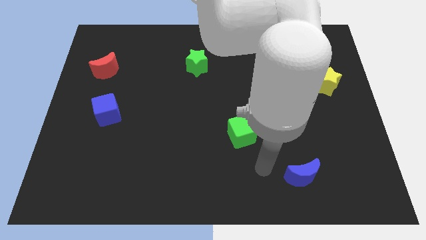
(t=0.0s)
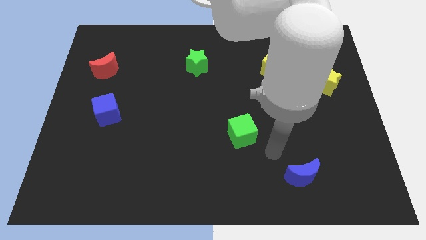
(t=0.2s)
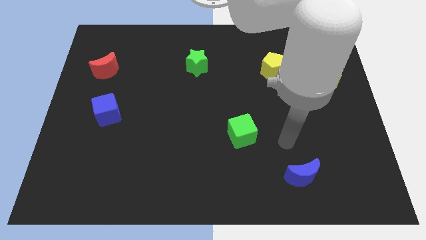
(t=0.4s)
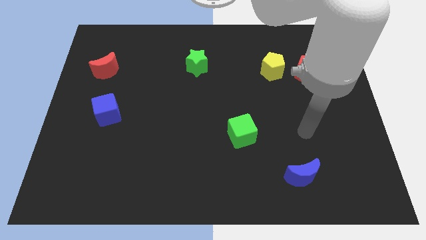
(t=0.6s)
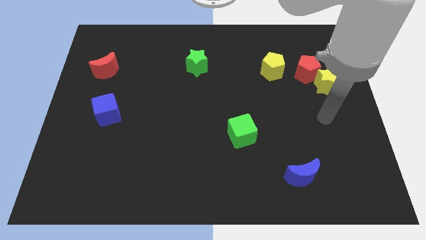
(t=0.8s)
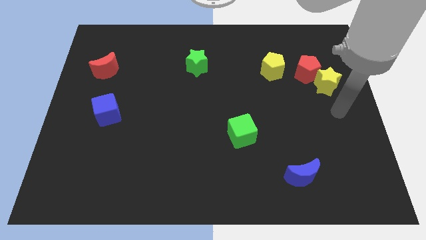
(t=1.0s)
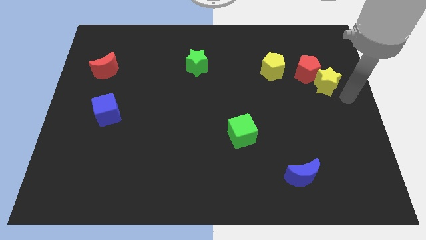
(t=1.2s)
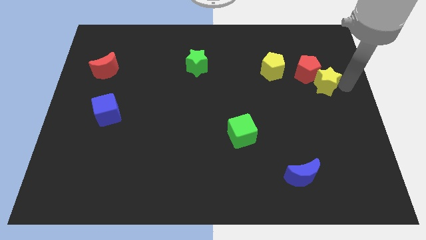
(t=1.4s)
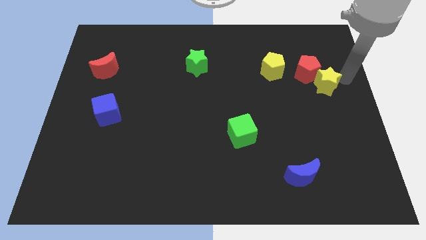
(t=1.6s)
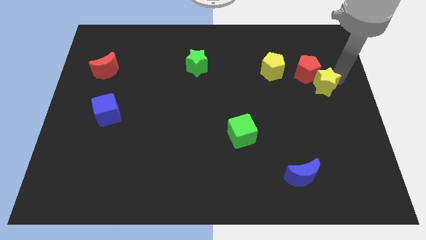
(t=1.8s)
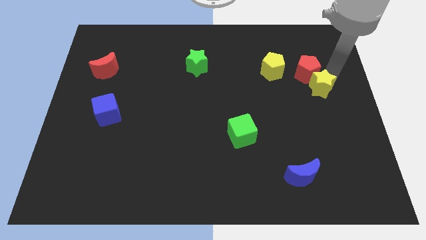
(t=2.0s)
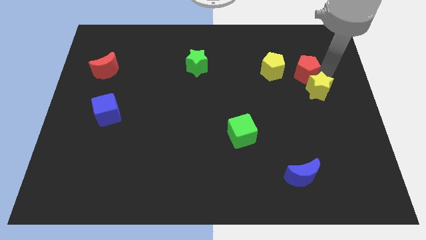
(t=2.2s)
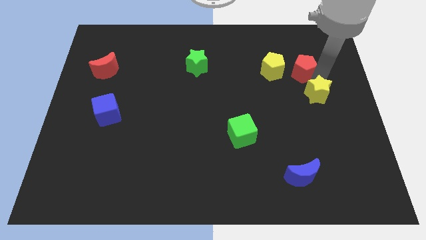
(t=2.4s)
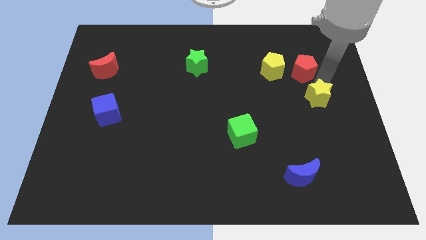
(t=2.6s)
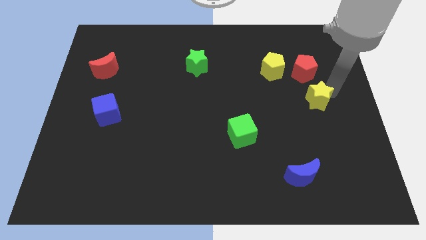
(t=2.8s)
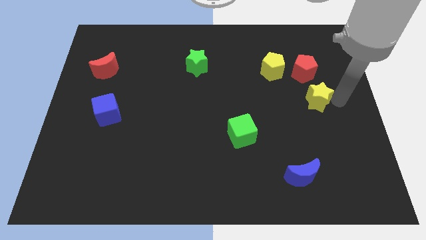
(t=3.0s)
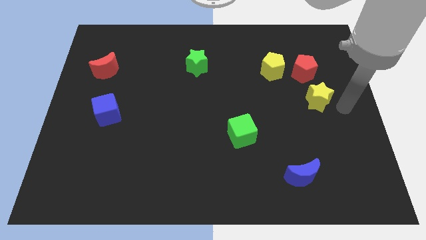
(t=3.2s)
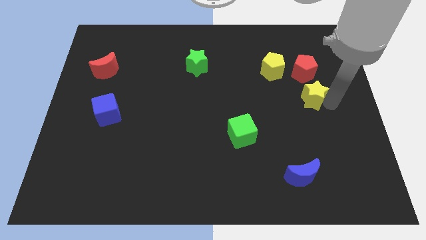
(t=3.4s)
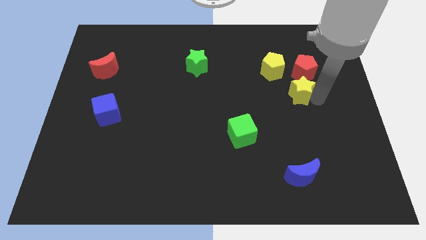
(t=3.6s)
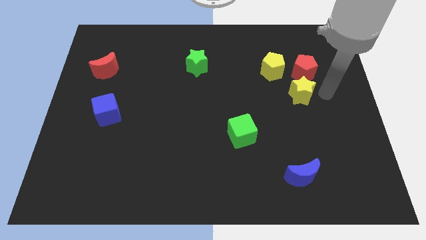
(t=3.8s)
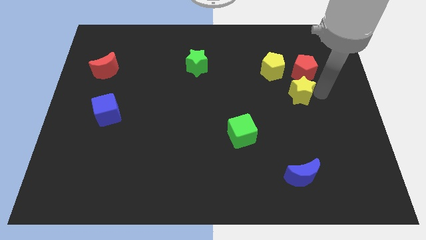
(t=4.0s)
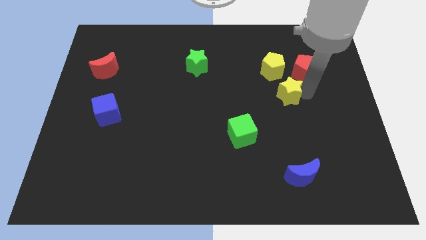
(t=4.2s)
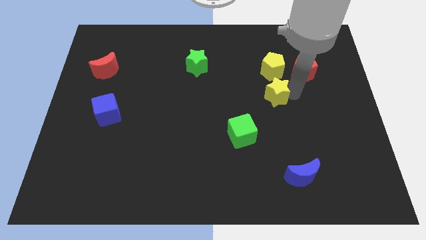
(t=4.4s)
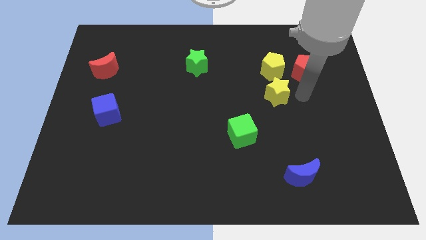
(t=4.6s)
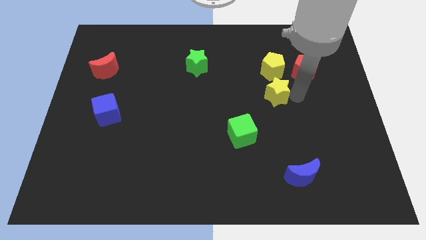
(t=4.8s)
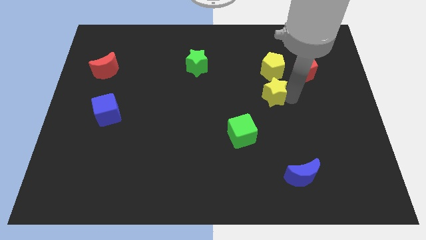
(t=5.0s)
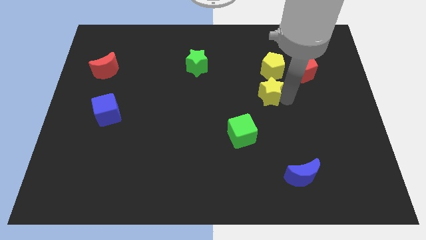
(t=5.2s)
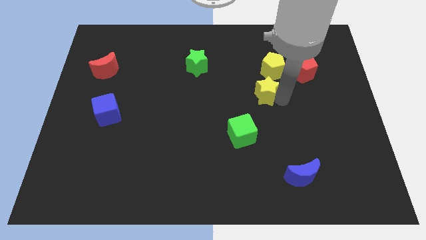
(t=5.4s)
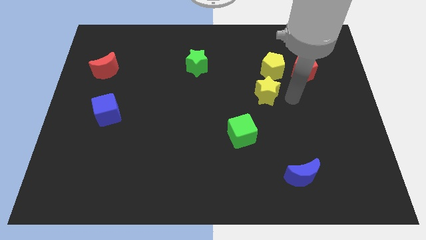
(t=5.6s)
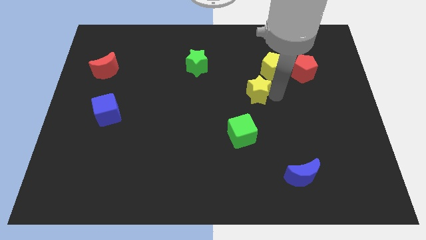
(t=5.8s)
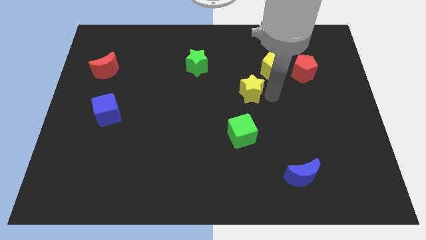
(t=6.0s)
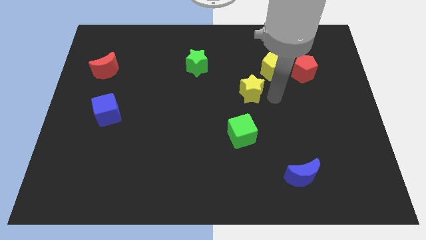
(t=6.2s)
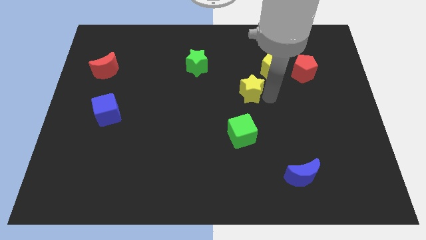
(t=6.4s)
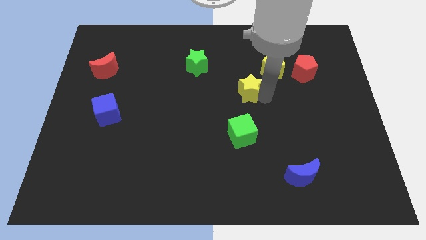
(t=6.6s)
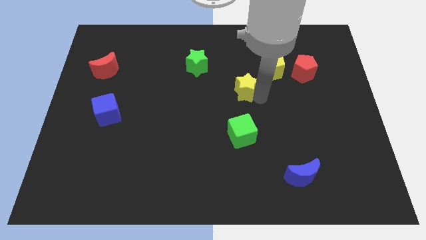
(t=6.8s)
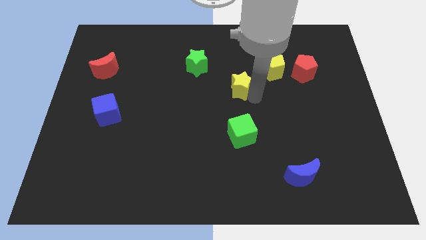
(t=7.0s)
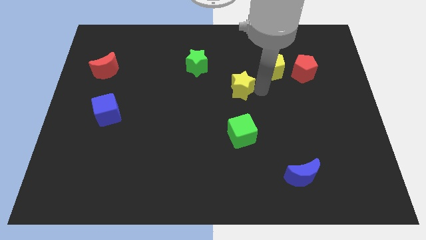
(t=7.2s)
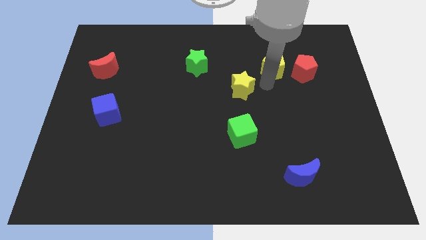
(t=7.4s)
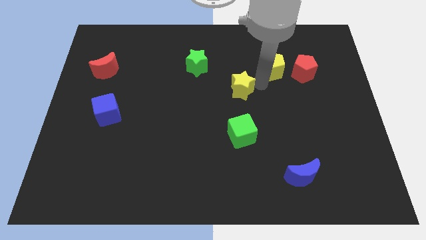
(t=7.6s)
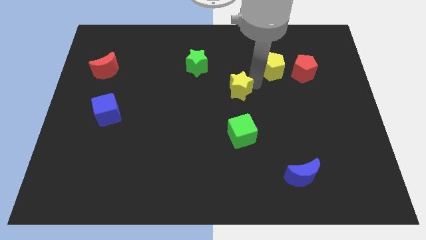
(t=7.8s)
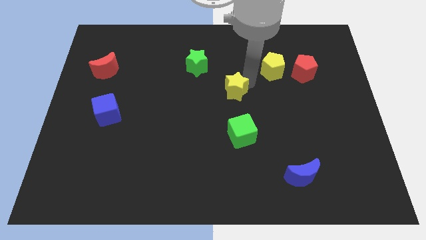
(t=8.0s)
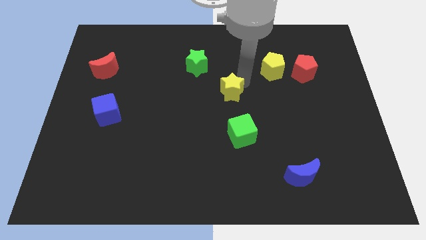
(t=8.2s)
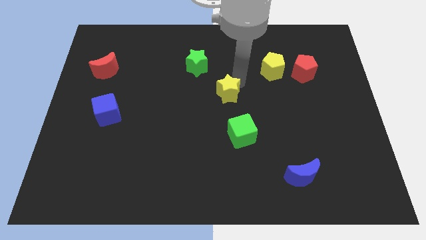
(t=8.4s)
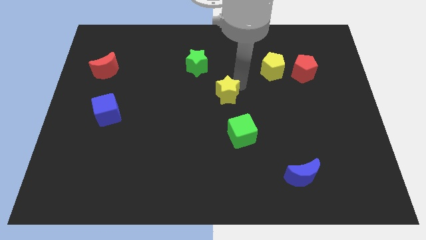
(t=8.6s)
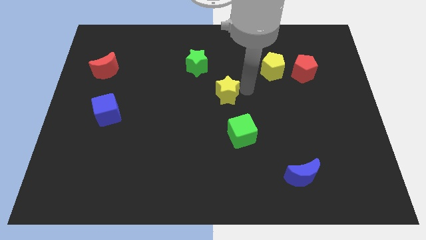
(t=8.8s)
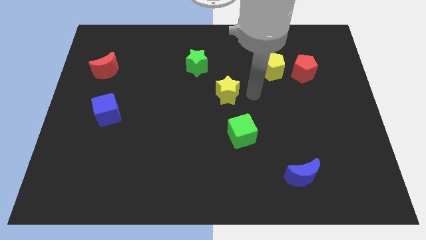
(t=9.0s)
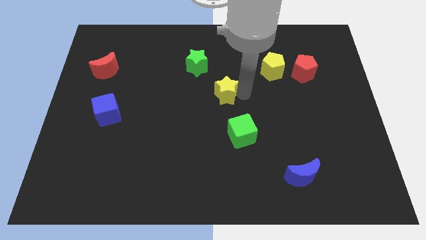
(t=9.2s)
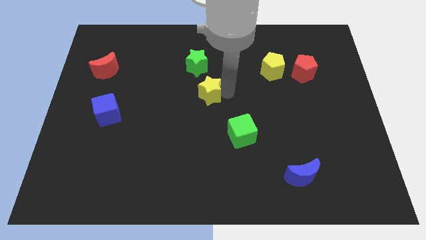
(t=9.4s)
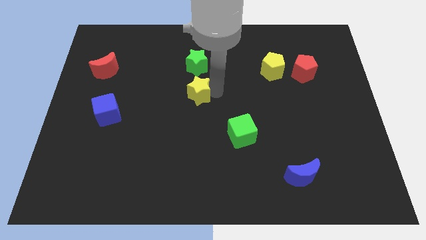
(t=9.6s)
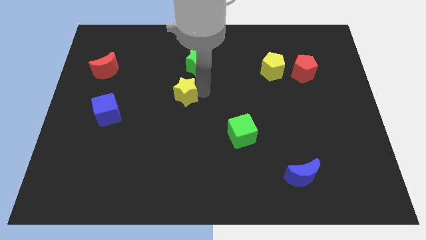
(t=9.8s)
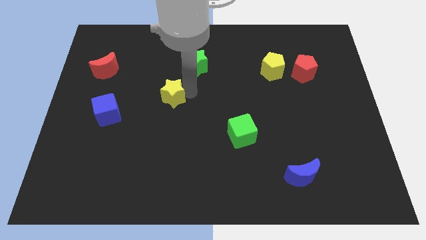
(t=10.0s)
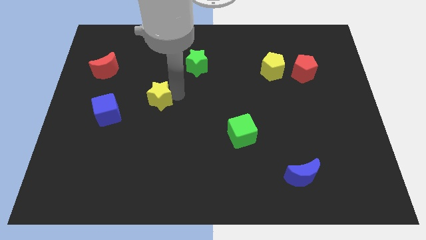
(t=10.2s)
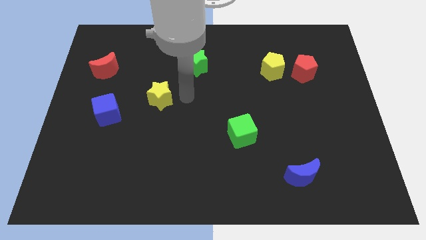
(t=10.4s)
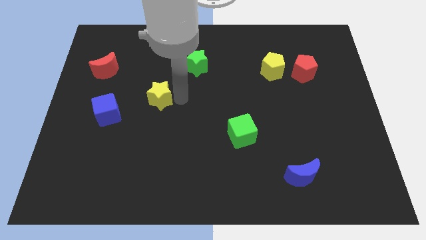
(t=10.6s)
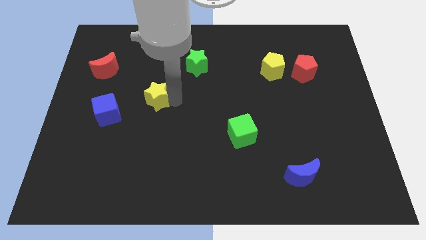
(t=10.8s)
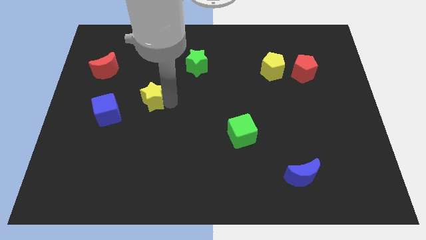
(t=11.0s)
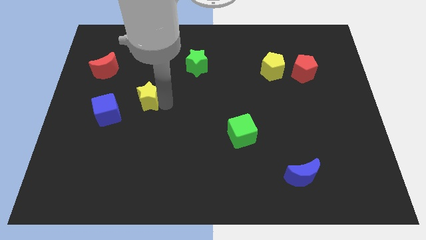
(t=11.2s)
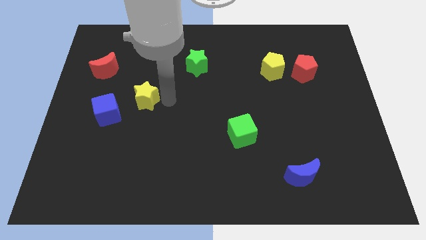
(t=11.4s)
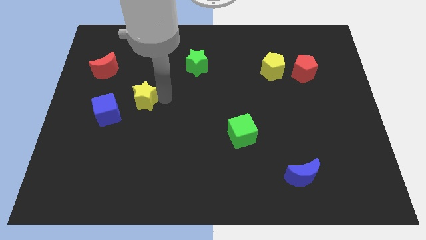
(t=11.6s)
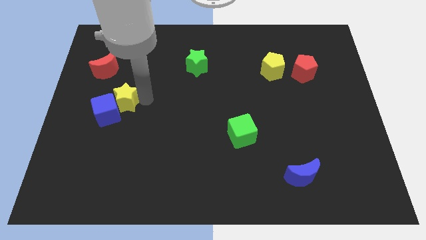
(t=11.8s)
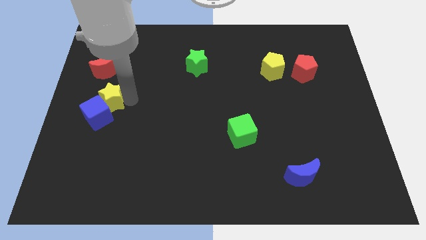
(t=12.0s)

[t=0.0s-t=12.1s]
slide the yellow star to the bottom side of the red moon

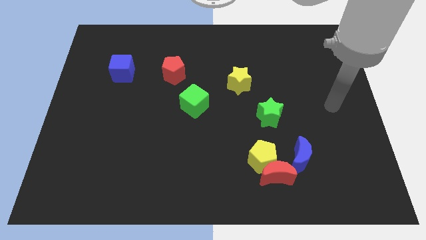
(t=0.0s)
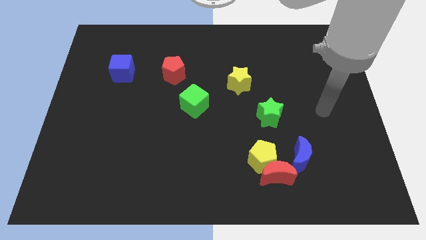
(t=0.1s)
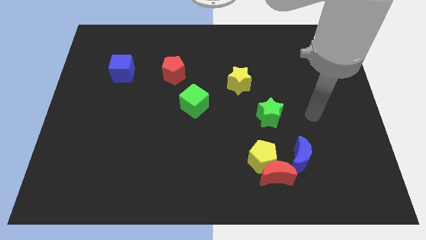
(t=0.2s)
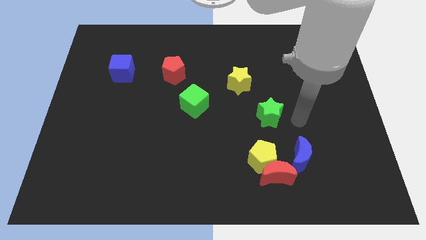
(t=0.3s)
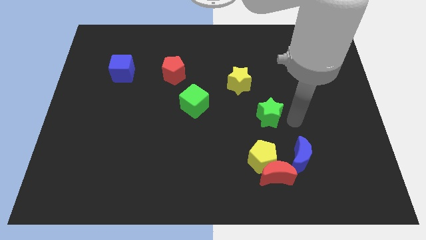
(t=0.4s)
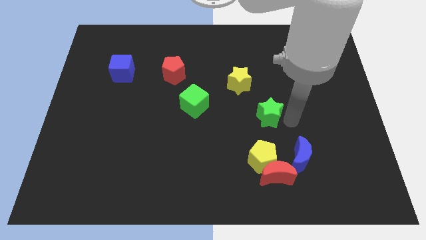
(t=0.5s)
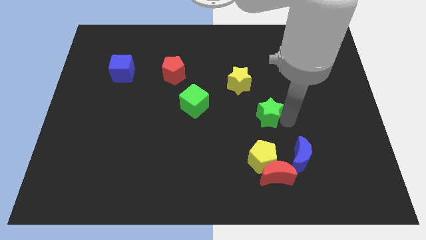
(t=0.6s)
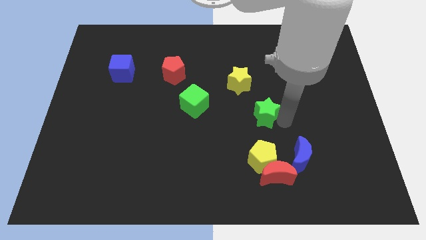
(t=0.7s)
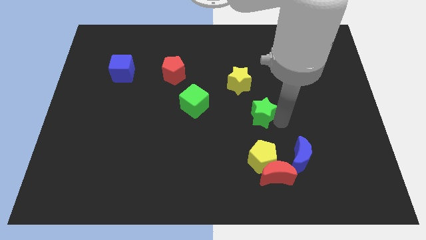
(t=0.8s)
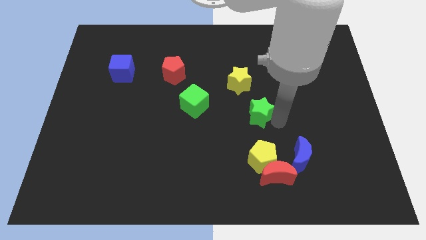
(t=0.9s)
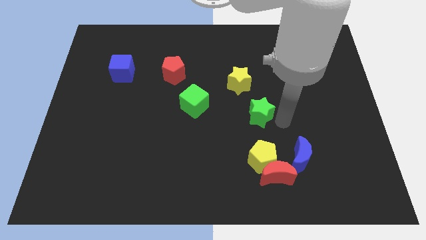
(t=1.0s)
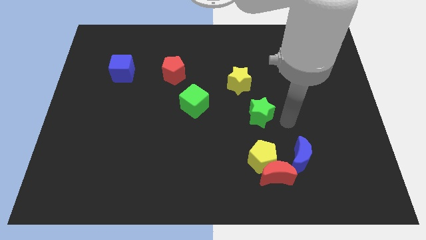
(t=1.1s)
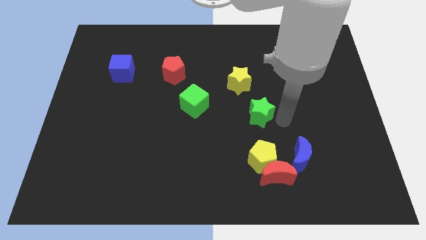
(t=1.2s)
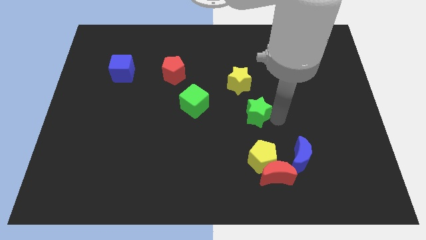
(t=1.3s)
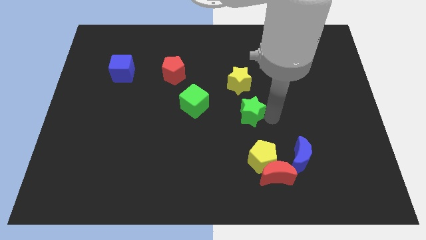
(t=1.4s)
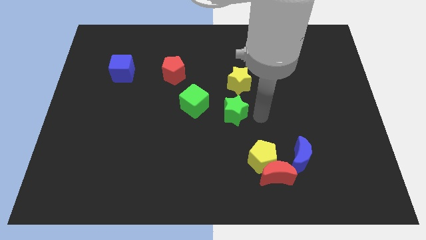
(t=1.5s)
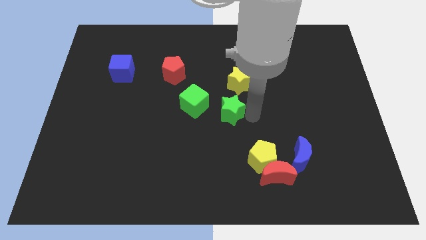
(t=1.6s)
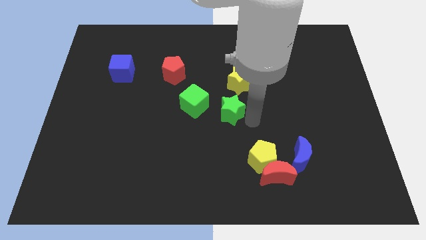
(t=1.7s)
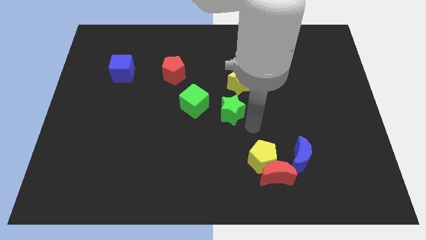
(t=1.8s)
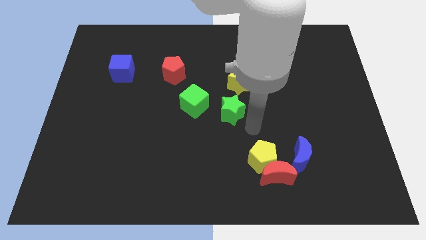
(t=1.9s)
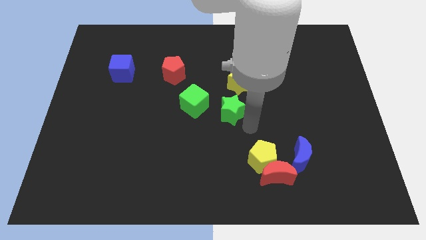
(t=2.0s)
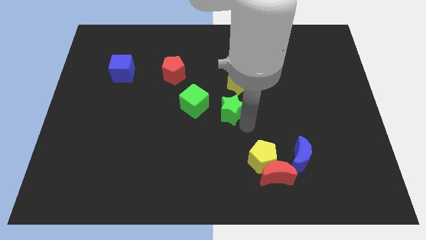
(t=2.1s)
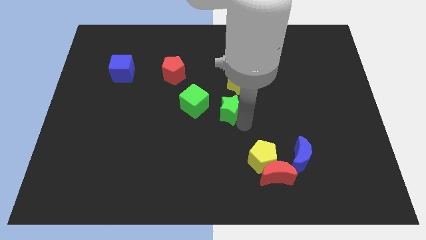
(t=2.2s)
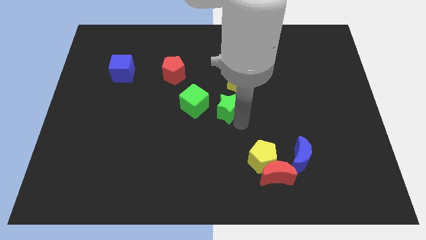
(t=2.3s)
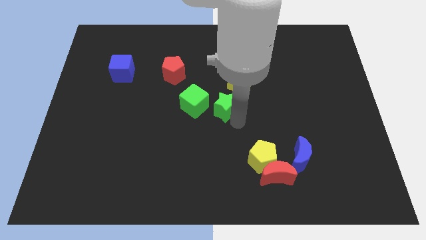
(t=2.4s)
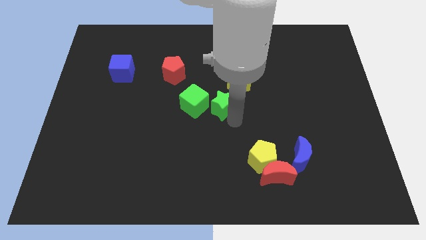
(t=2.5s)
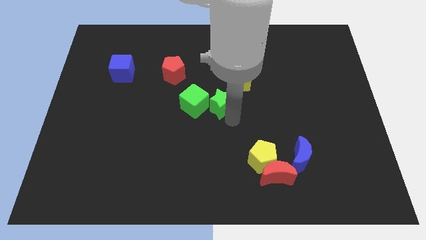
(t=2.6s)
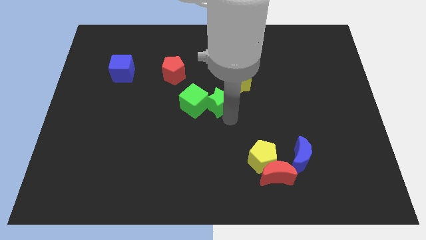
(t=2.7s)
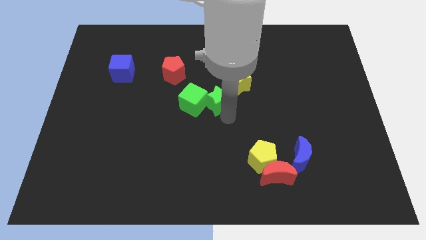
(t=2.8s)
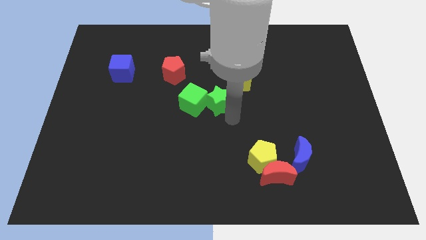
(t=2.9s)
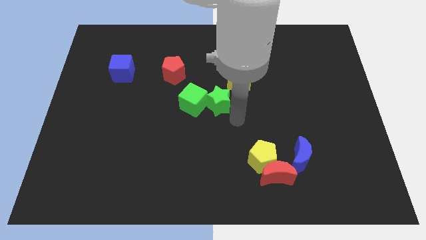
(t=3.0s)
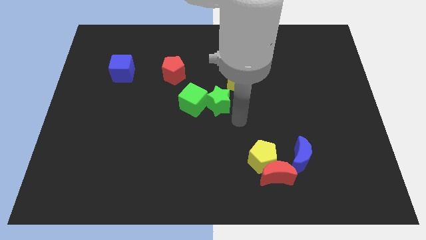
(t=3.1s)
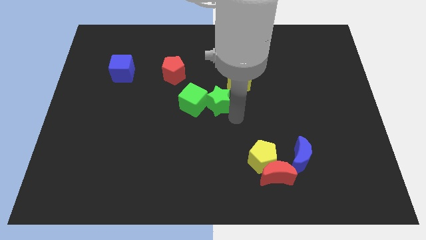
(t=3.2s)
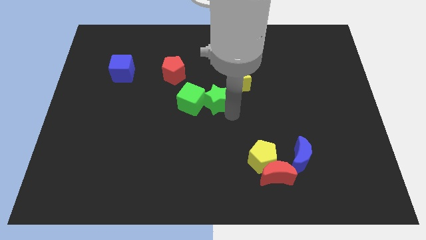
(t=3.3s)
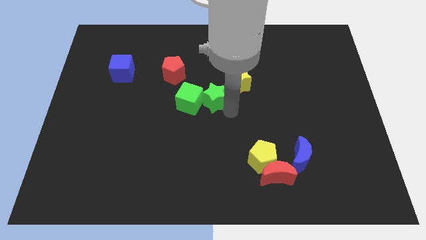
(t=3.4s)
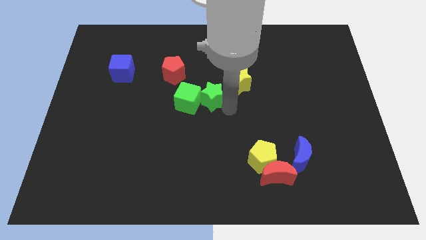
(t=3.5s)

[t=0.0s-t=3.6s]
move the green star diagonally down and to the right of the red pentagon
